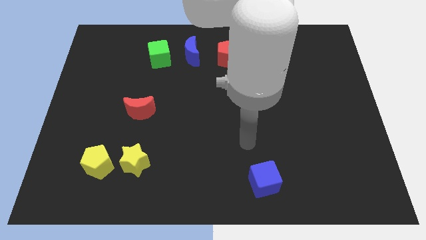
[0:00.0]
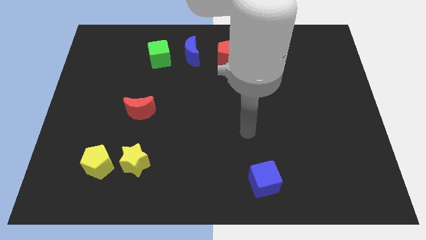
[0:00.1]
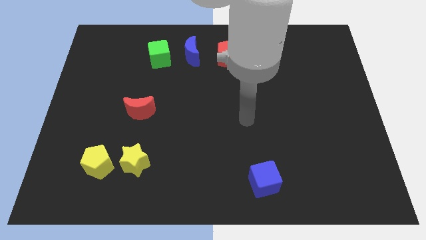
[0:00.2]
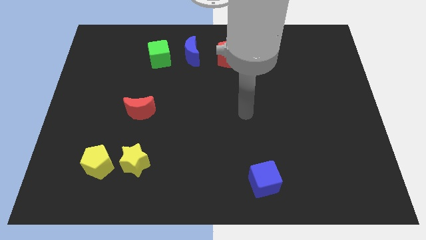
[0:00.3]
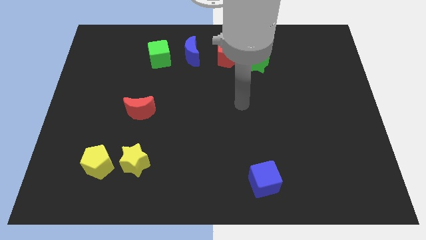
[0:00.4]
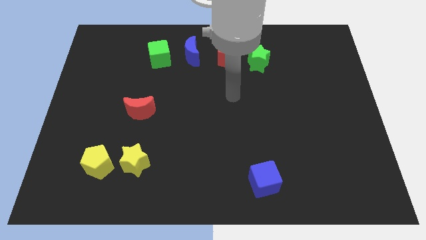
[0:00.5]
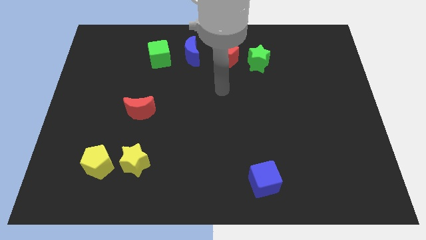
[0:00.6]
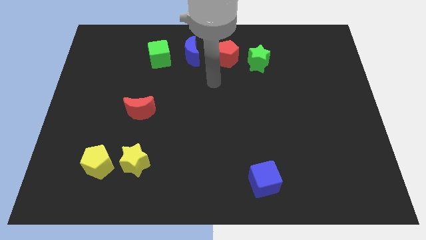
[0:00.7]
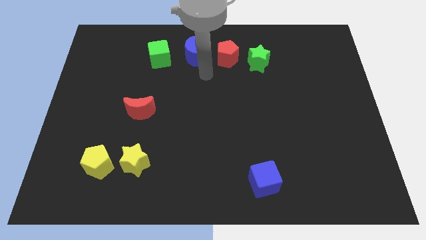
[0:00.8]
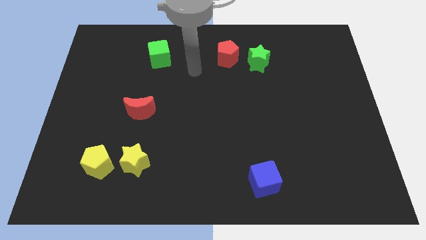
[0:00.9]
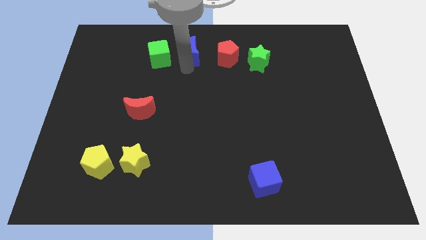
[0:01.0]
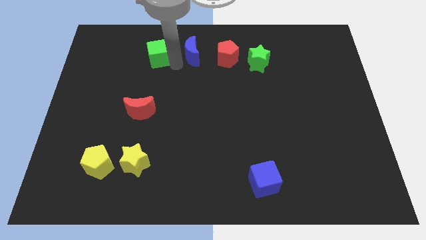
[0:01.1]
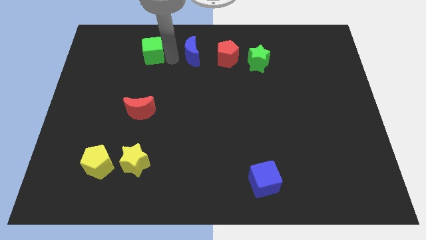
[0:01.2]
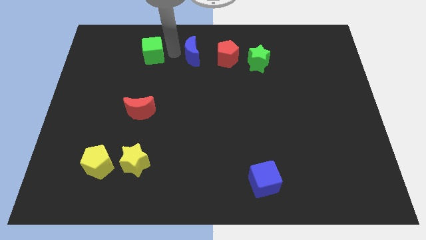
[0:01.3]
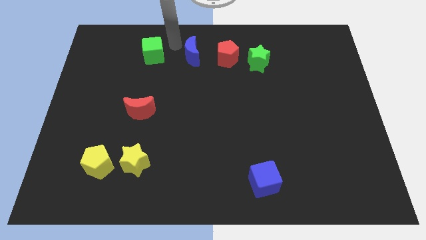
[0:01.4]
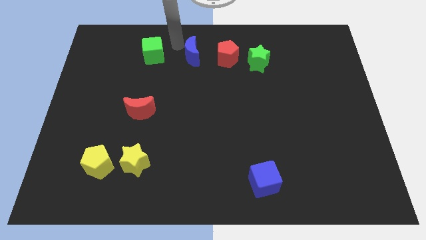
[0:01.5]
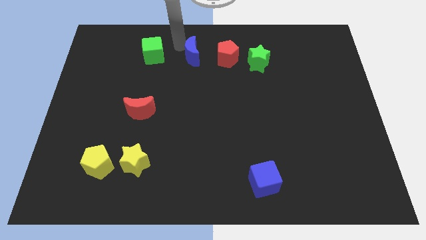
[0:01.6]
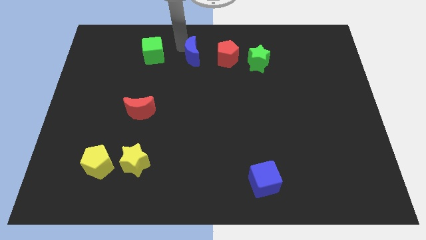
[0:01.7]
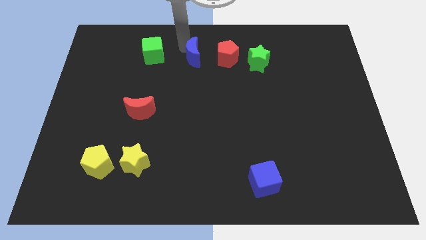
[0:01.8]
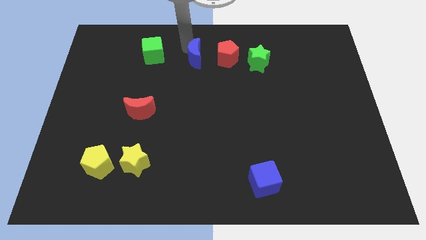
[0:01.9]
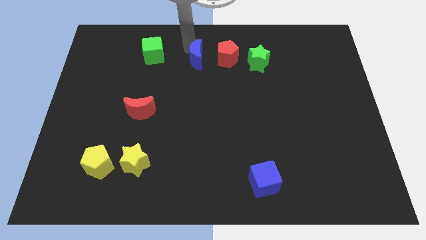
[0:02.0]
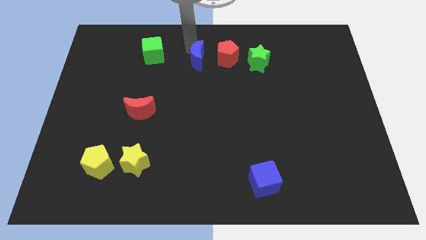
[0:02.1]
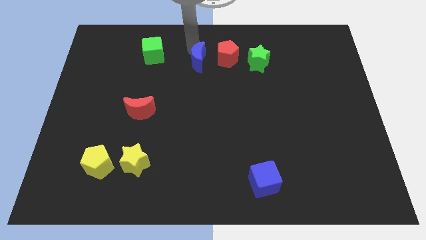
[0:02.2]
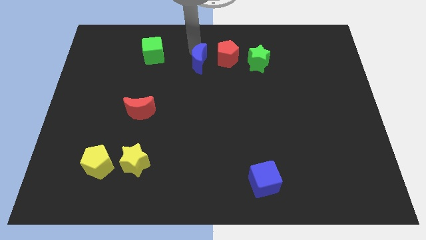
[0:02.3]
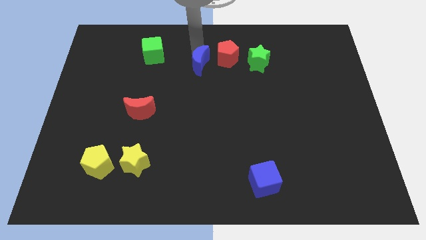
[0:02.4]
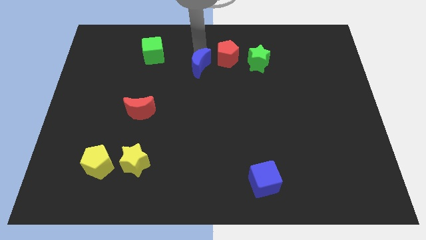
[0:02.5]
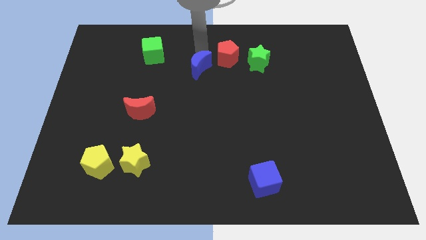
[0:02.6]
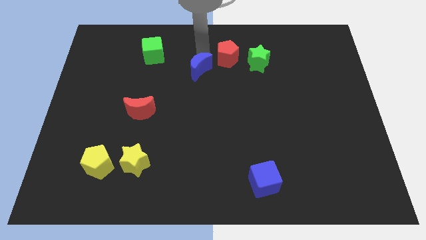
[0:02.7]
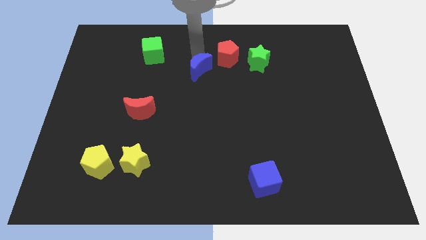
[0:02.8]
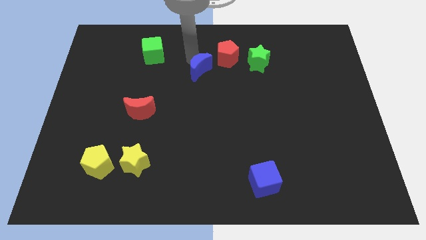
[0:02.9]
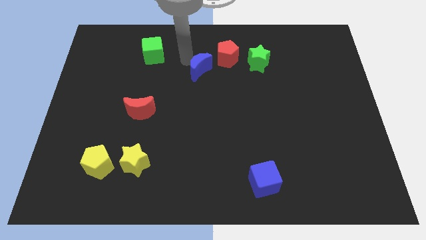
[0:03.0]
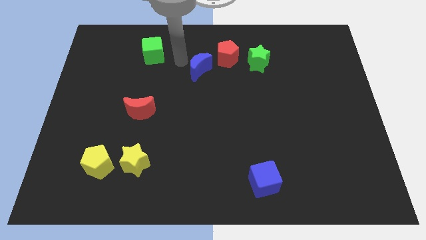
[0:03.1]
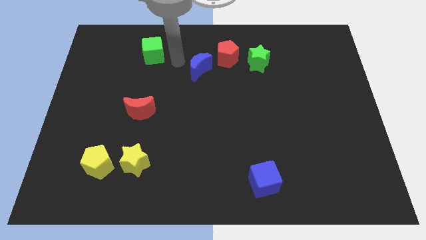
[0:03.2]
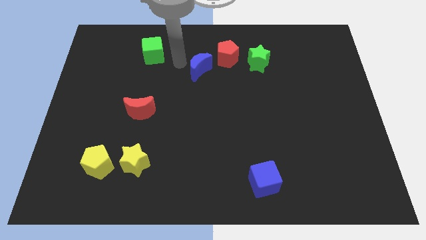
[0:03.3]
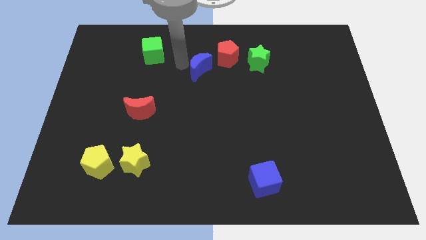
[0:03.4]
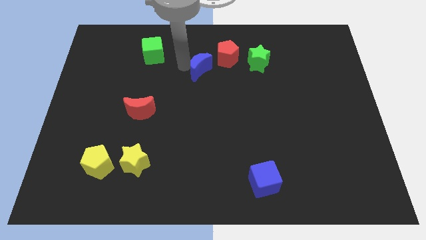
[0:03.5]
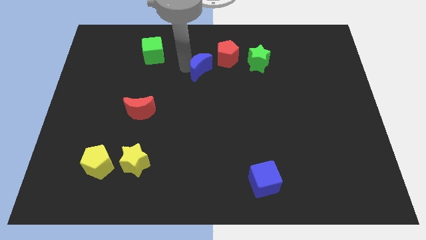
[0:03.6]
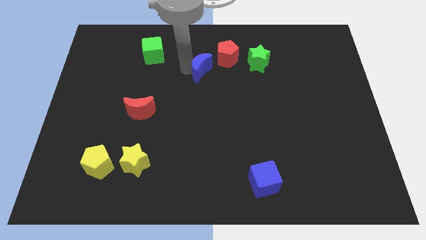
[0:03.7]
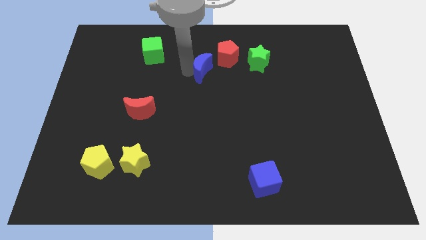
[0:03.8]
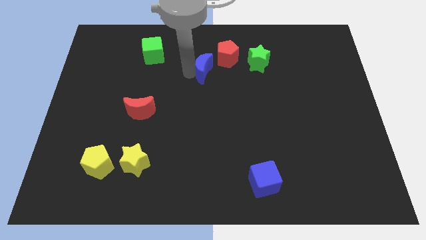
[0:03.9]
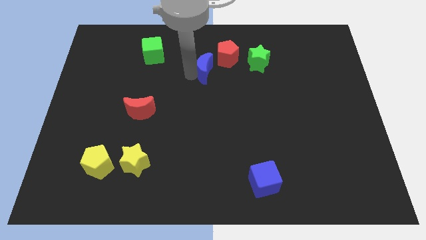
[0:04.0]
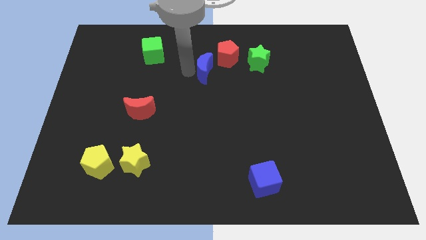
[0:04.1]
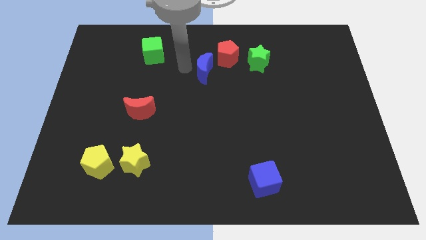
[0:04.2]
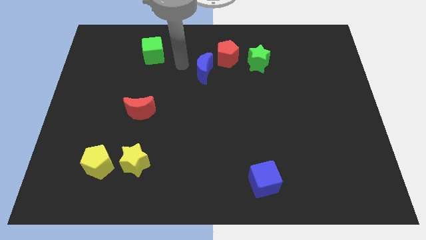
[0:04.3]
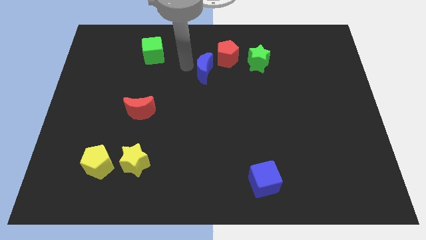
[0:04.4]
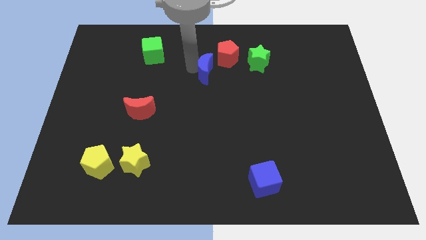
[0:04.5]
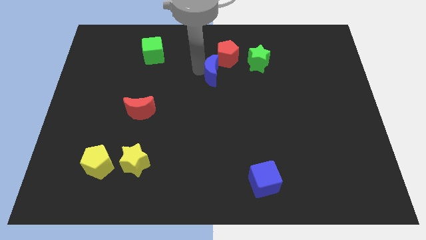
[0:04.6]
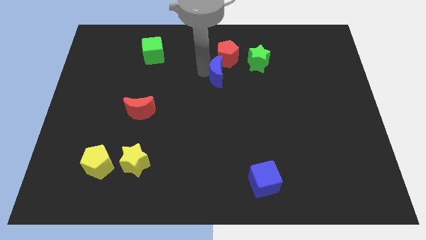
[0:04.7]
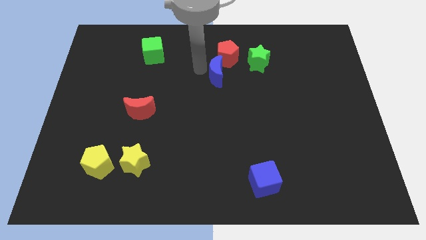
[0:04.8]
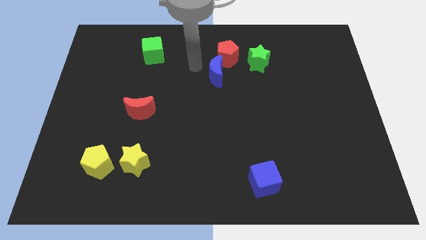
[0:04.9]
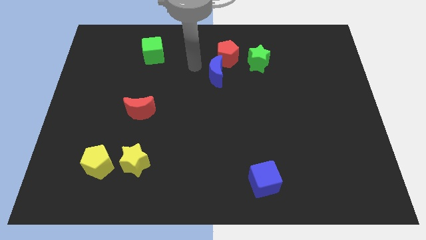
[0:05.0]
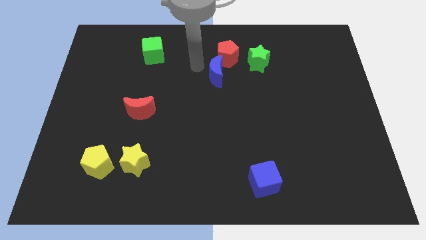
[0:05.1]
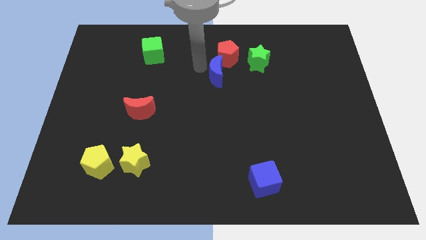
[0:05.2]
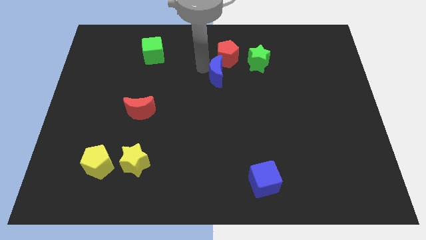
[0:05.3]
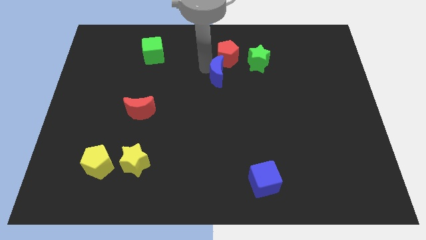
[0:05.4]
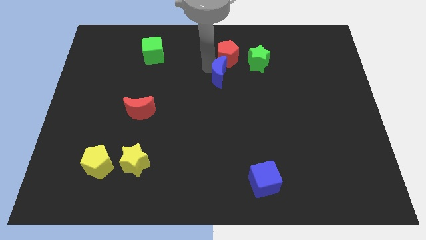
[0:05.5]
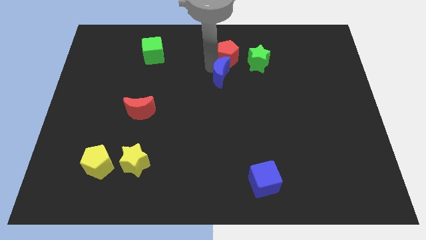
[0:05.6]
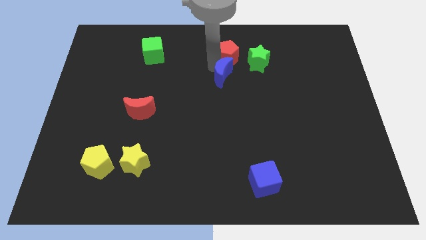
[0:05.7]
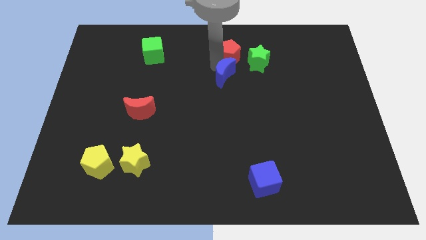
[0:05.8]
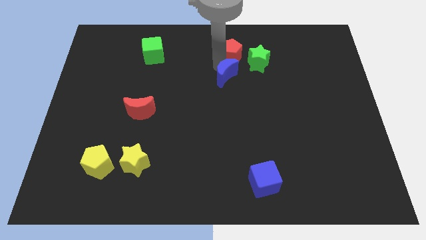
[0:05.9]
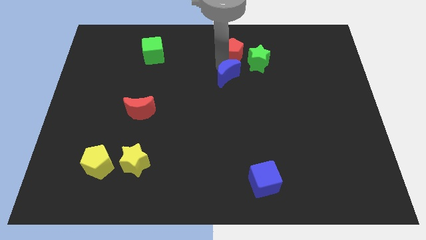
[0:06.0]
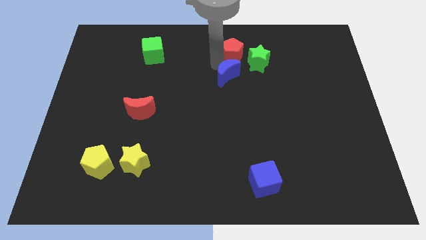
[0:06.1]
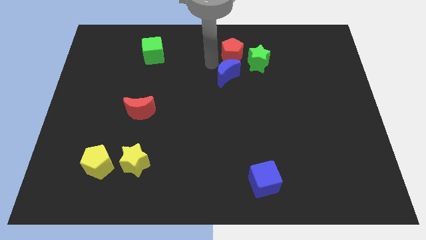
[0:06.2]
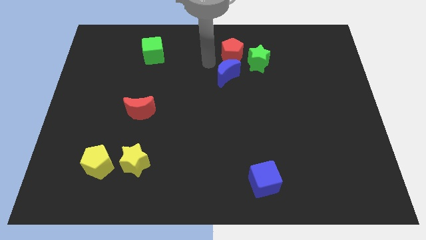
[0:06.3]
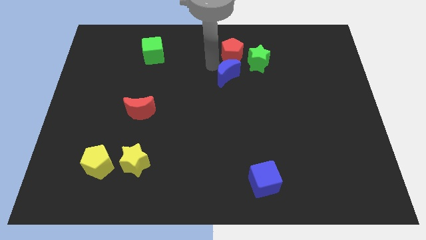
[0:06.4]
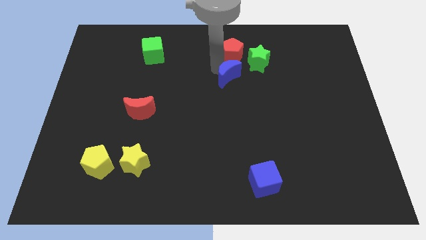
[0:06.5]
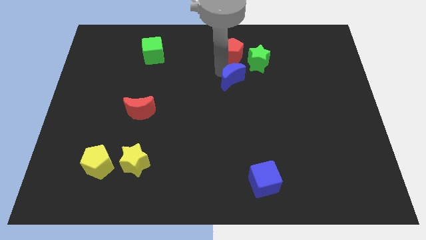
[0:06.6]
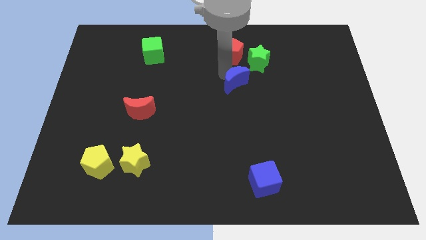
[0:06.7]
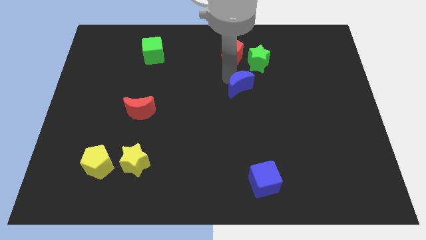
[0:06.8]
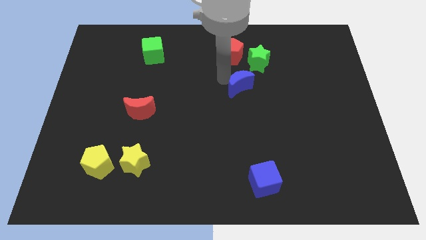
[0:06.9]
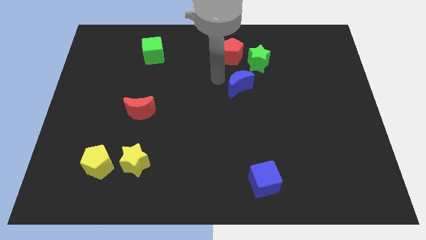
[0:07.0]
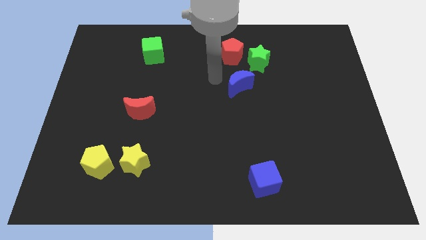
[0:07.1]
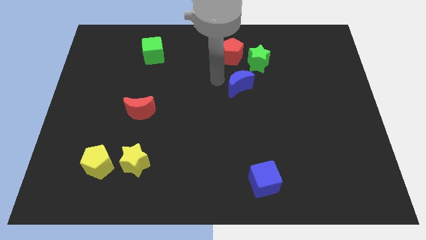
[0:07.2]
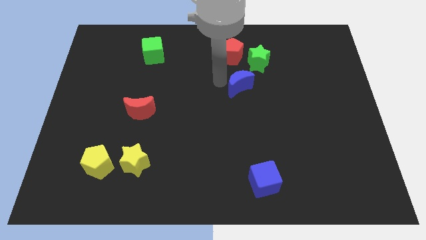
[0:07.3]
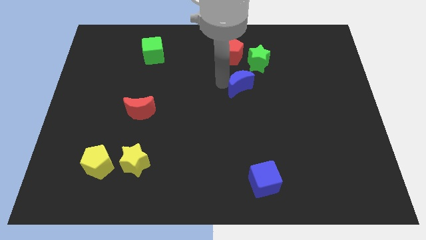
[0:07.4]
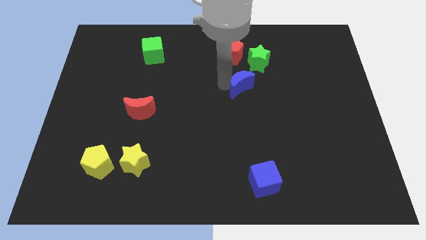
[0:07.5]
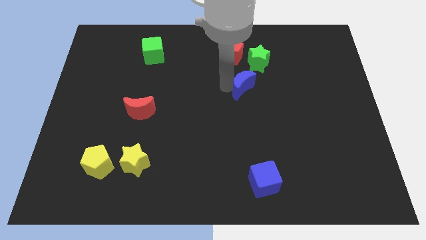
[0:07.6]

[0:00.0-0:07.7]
push the blue moon to the bottom of the green star
